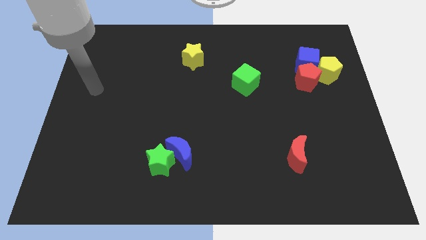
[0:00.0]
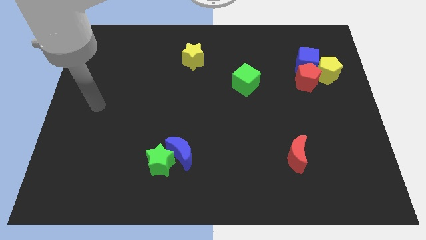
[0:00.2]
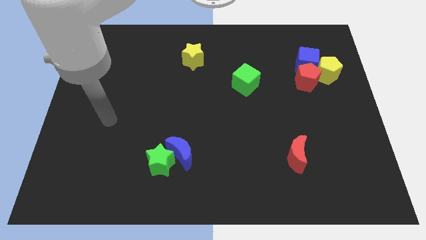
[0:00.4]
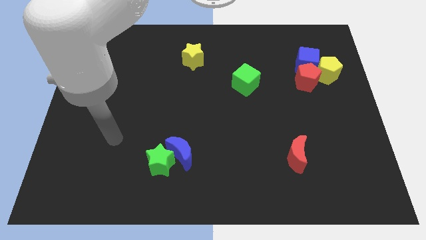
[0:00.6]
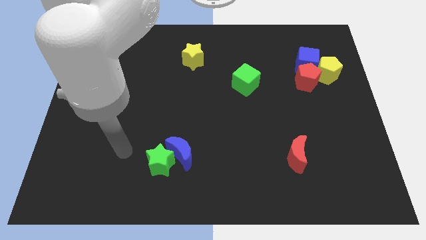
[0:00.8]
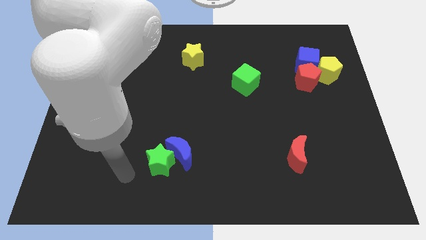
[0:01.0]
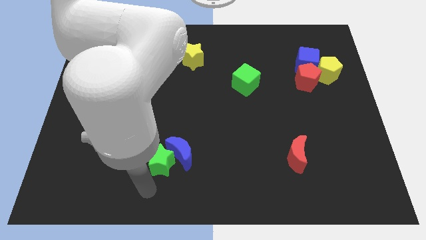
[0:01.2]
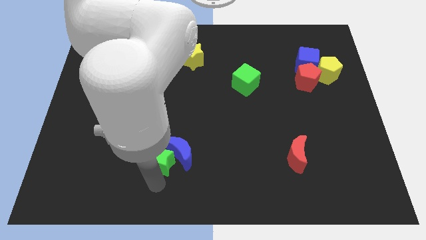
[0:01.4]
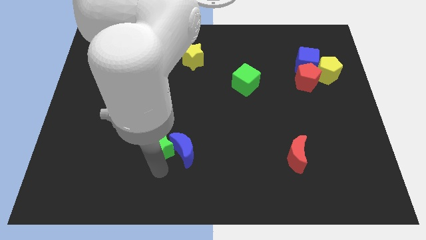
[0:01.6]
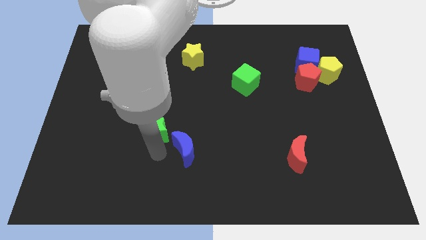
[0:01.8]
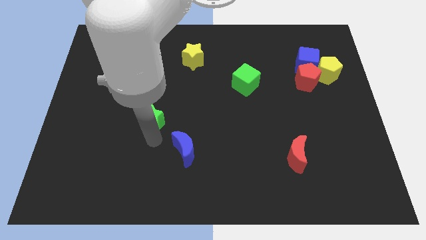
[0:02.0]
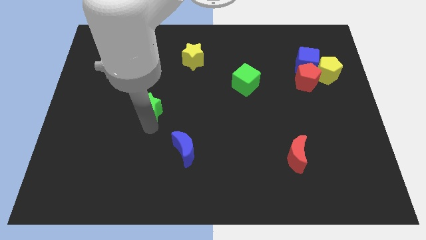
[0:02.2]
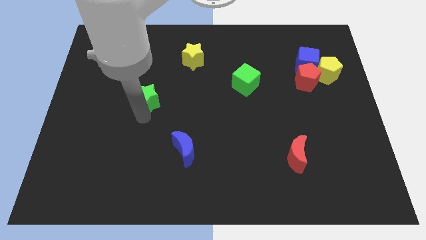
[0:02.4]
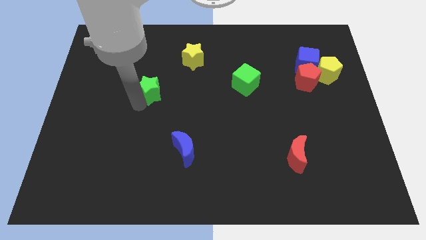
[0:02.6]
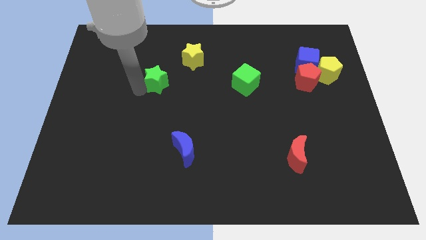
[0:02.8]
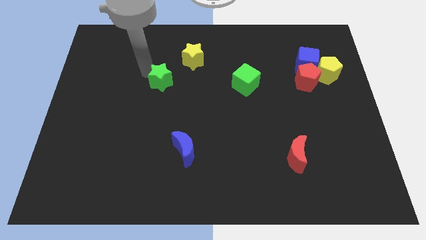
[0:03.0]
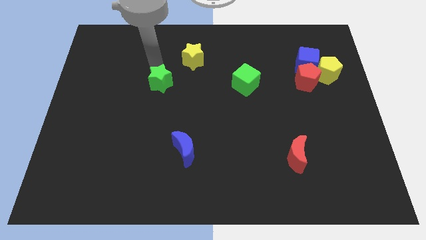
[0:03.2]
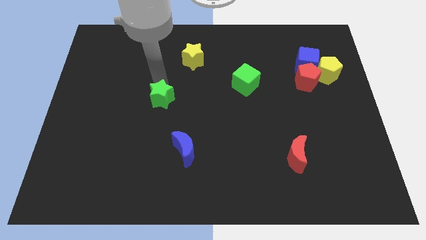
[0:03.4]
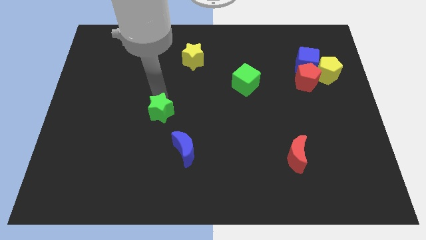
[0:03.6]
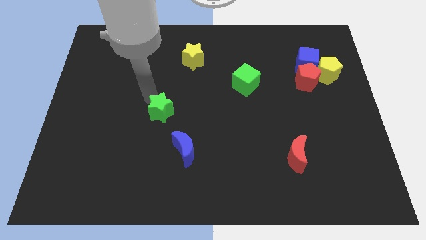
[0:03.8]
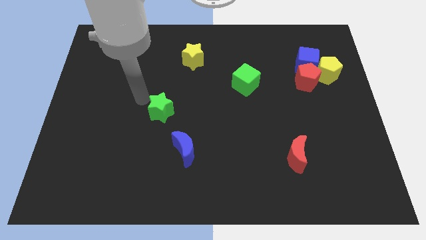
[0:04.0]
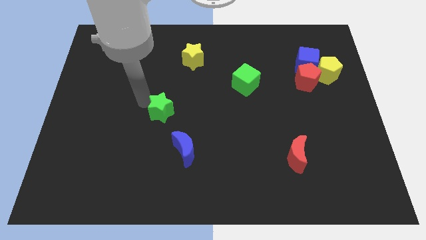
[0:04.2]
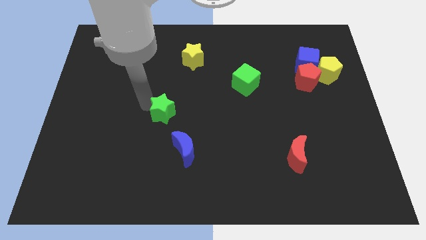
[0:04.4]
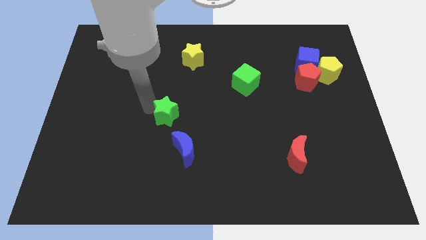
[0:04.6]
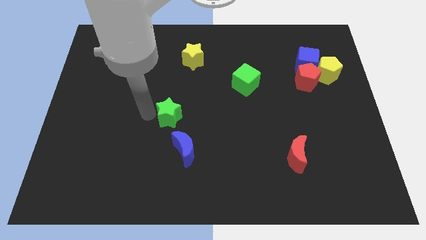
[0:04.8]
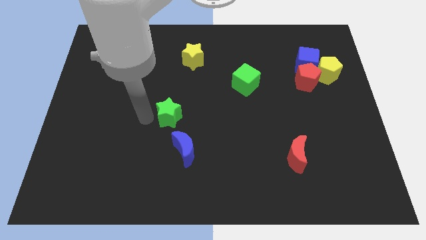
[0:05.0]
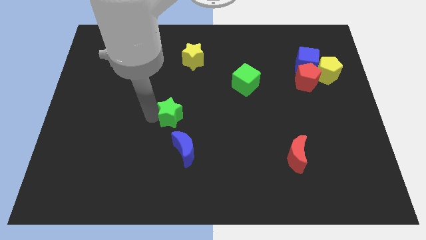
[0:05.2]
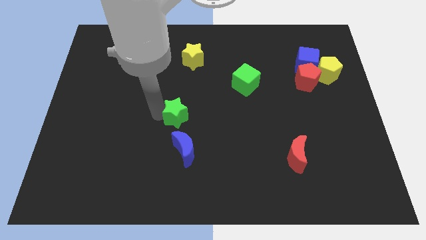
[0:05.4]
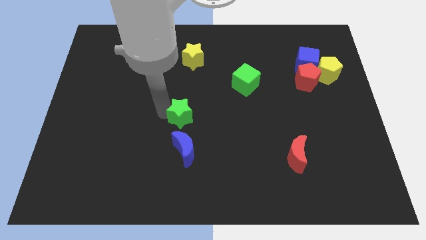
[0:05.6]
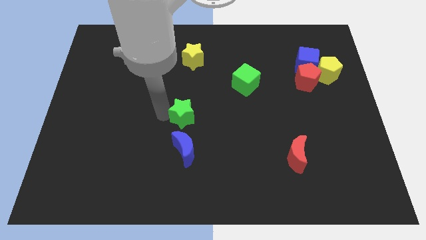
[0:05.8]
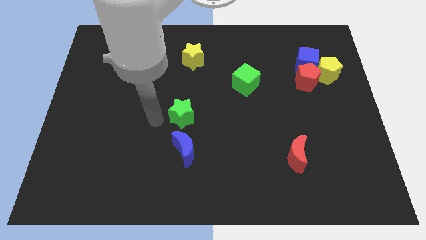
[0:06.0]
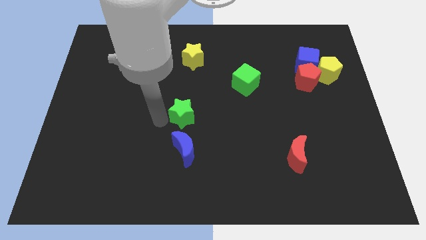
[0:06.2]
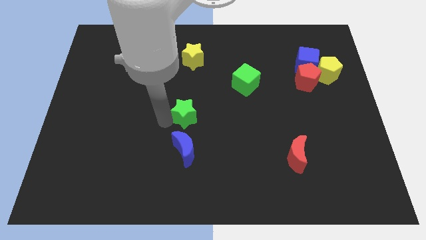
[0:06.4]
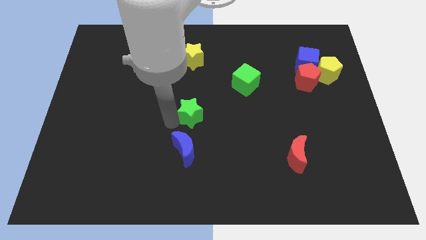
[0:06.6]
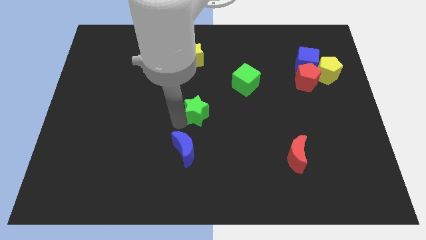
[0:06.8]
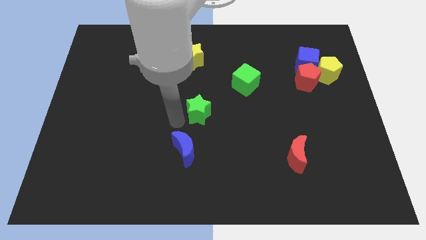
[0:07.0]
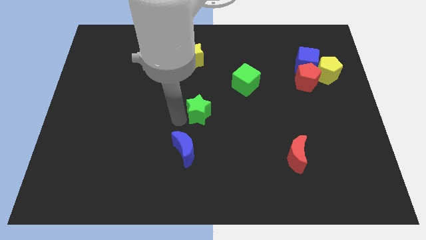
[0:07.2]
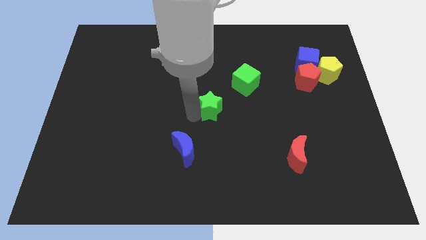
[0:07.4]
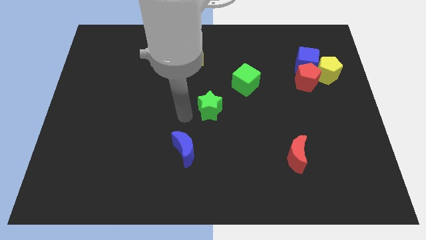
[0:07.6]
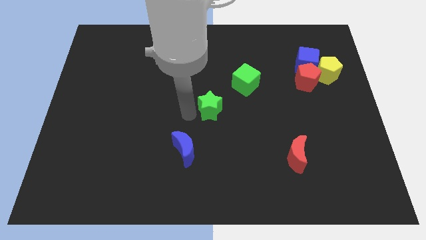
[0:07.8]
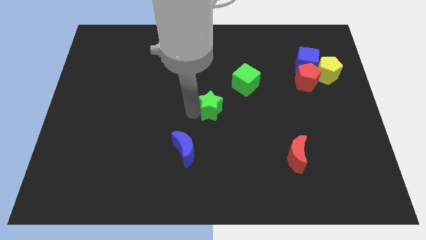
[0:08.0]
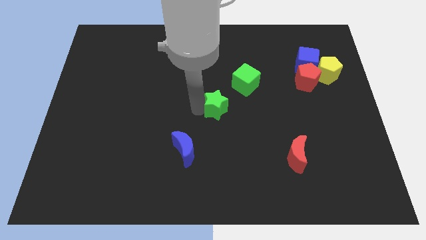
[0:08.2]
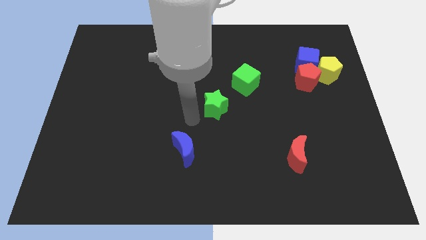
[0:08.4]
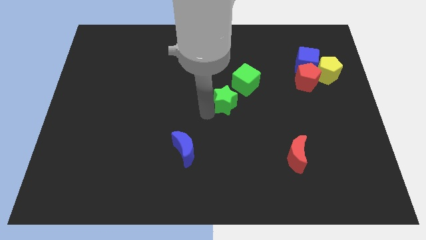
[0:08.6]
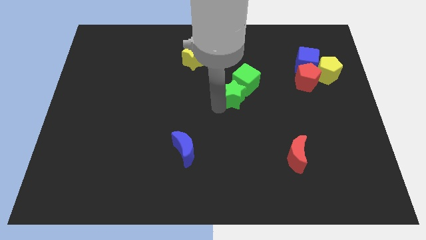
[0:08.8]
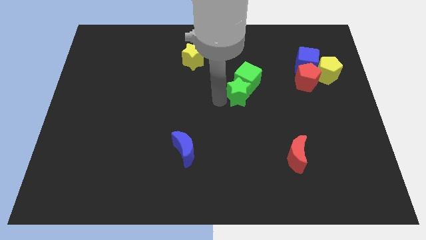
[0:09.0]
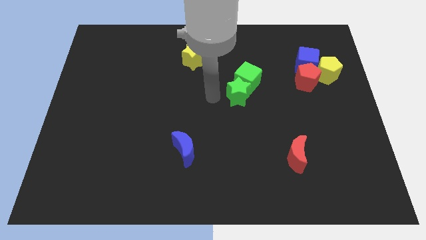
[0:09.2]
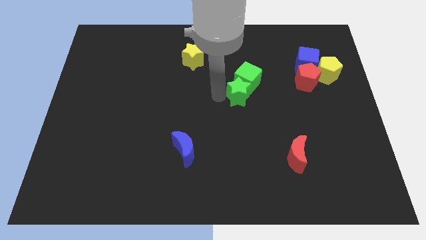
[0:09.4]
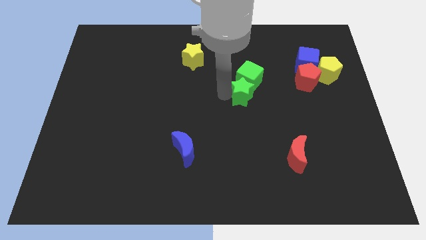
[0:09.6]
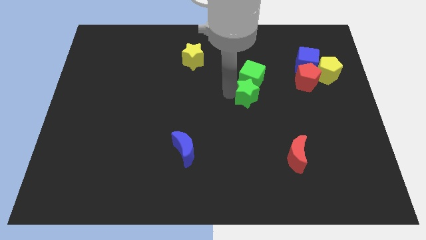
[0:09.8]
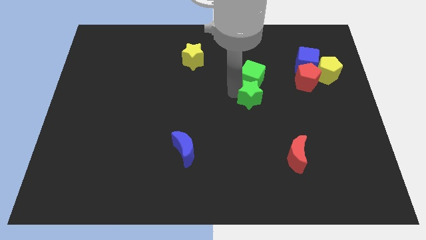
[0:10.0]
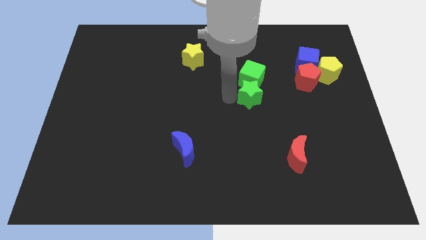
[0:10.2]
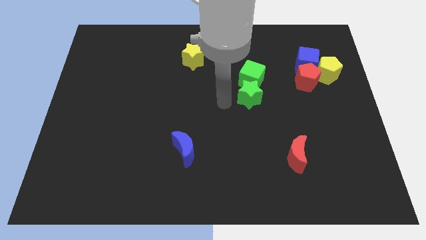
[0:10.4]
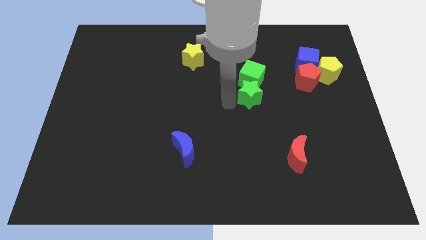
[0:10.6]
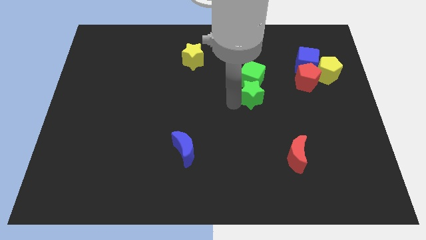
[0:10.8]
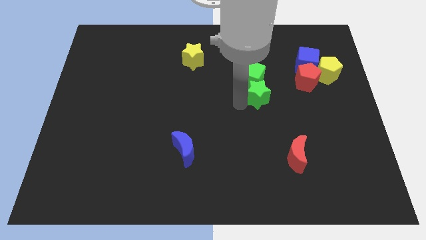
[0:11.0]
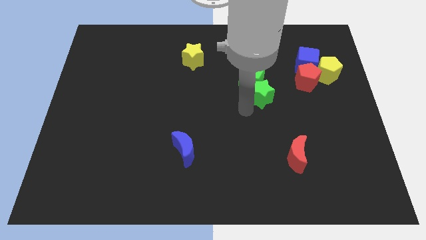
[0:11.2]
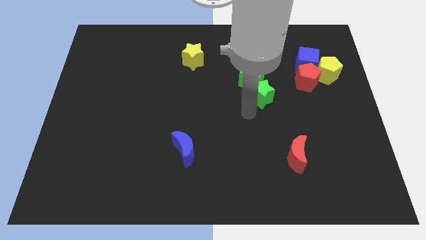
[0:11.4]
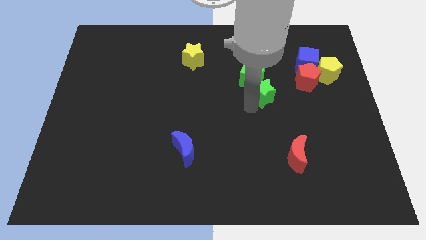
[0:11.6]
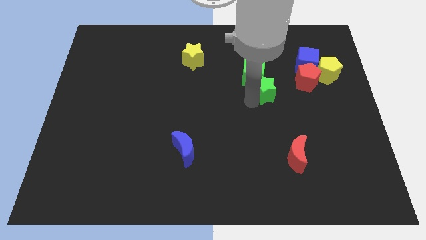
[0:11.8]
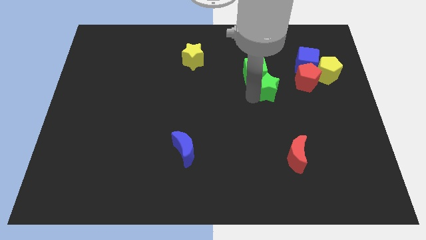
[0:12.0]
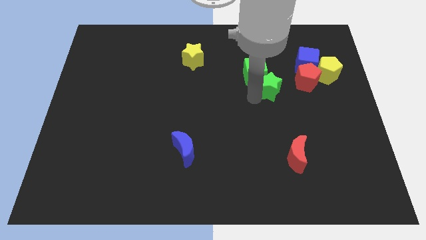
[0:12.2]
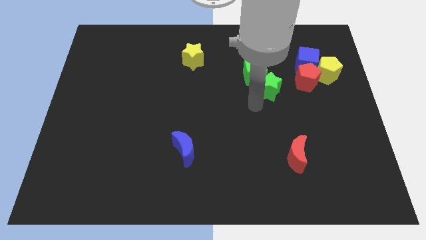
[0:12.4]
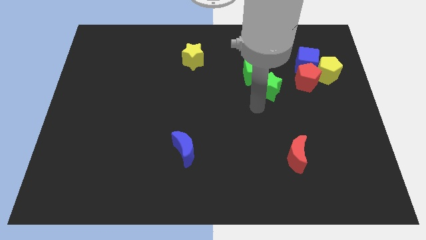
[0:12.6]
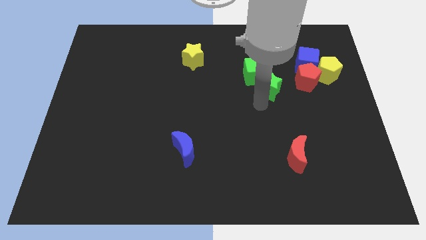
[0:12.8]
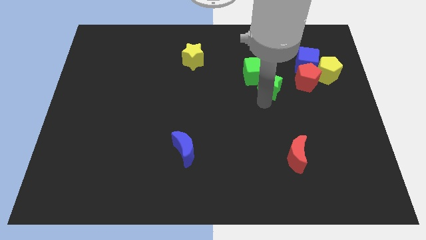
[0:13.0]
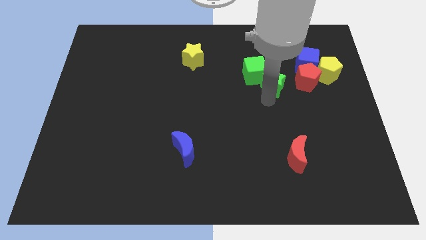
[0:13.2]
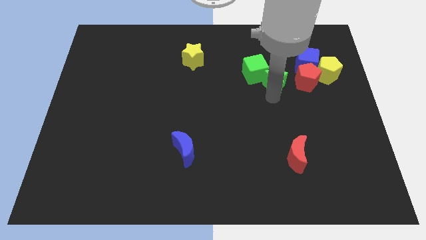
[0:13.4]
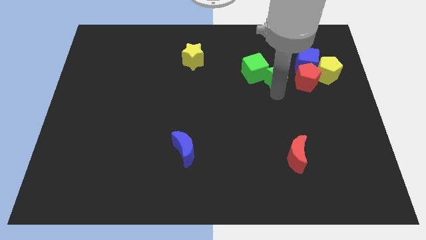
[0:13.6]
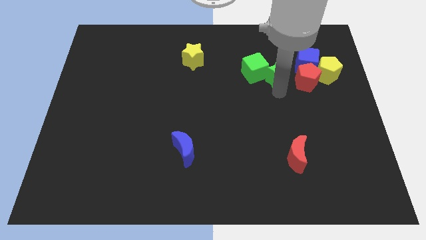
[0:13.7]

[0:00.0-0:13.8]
slide the green star to the top left side of the red pentagon
